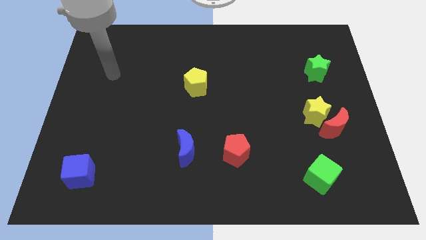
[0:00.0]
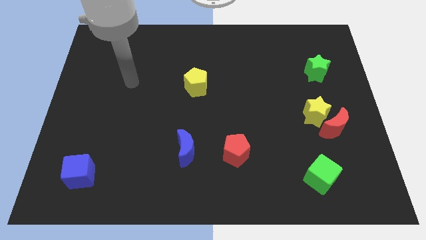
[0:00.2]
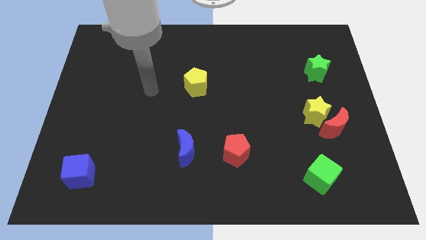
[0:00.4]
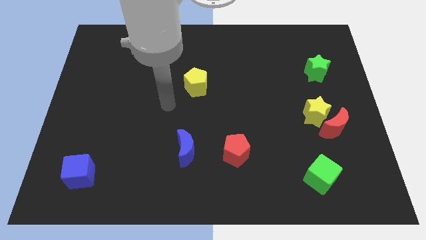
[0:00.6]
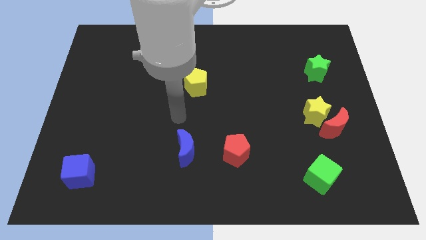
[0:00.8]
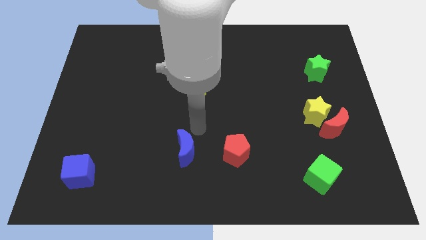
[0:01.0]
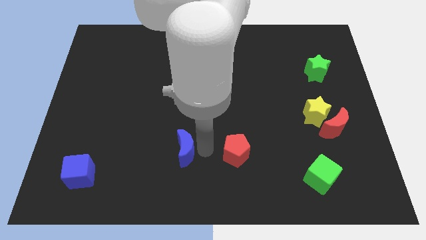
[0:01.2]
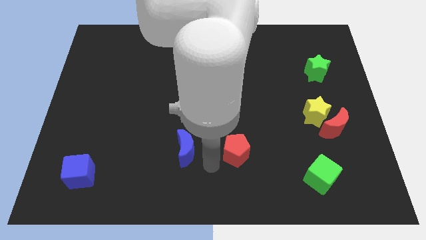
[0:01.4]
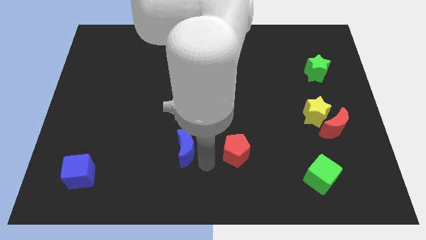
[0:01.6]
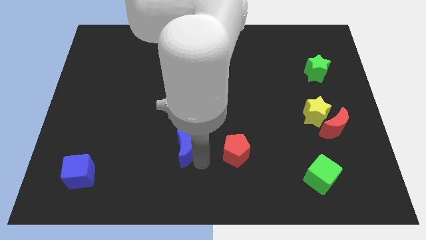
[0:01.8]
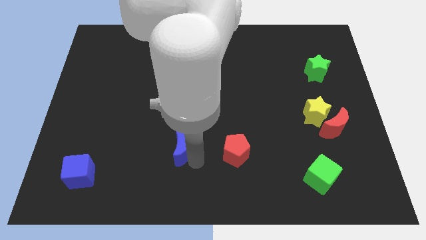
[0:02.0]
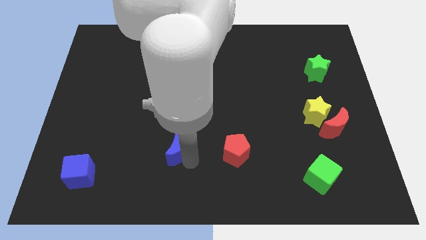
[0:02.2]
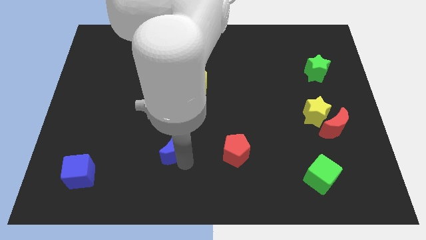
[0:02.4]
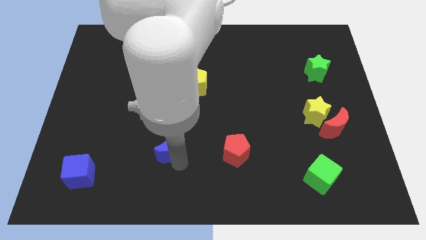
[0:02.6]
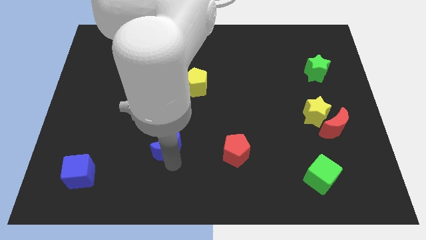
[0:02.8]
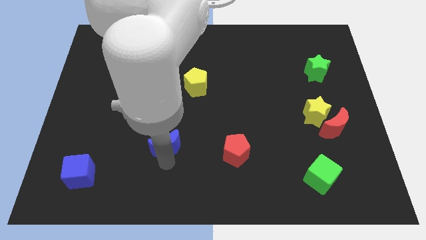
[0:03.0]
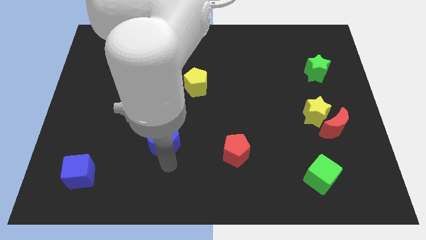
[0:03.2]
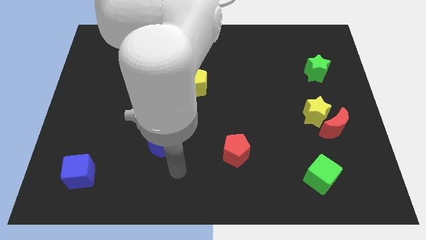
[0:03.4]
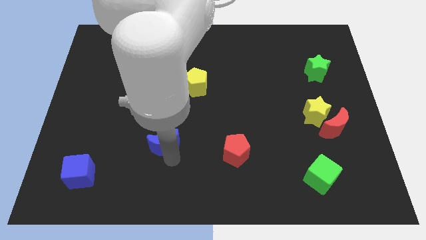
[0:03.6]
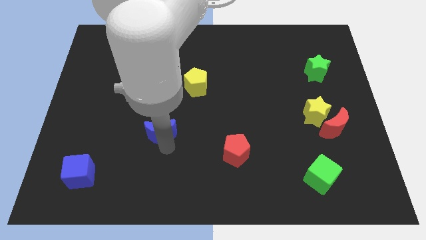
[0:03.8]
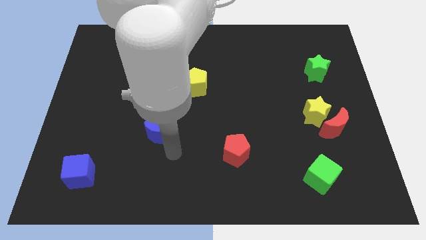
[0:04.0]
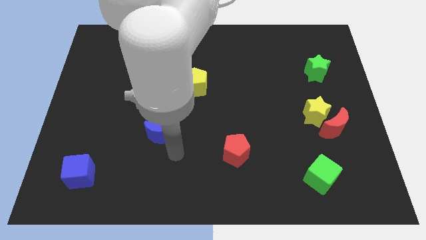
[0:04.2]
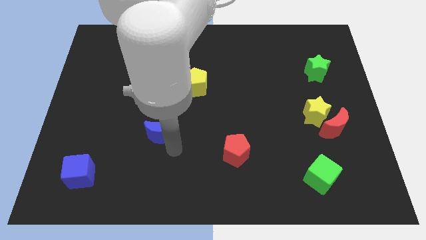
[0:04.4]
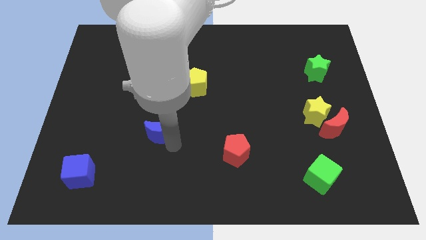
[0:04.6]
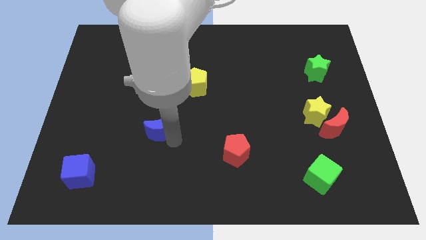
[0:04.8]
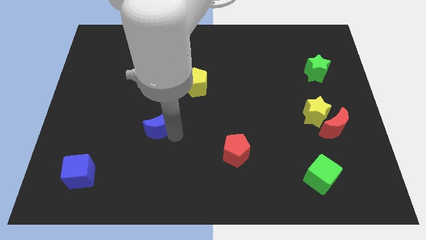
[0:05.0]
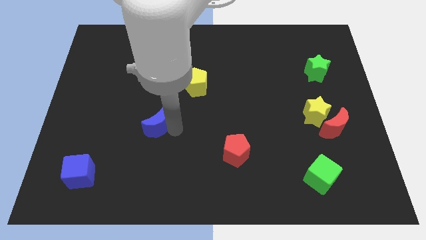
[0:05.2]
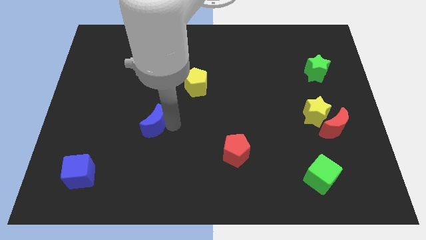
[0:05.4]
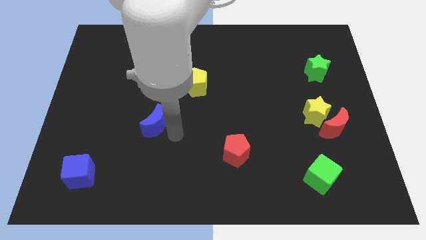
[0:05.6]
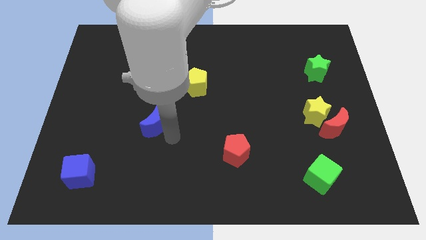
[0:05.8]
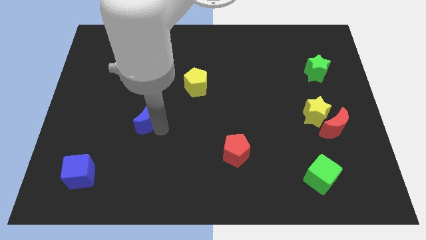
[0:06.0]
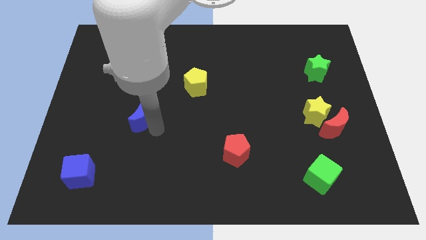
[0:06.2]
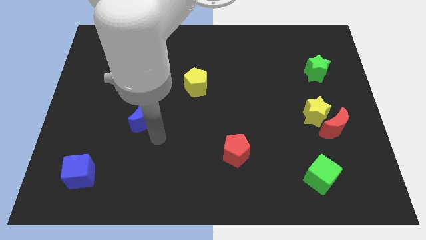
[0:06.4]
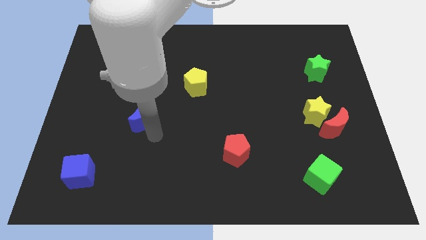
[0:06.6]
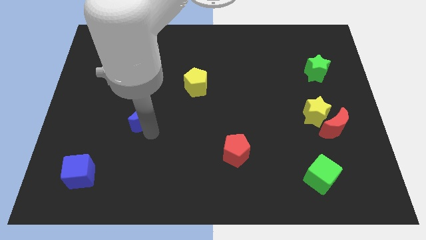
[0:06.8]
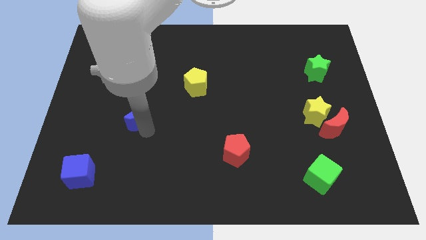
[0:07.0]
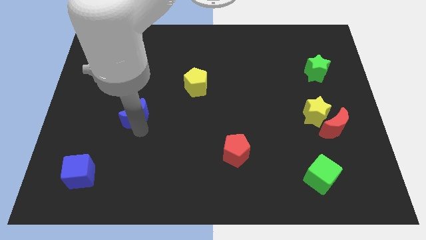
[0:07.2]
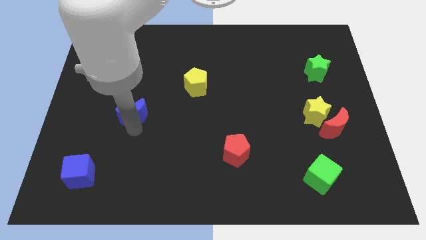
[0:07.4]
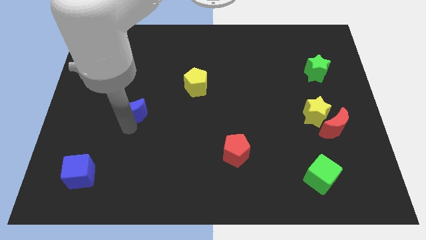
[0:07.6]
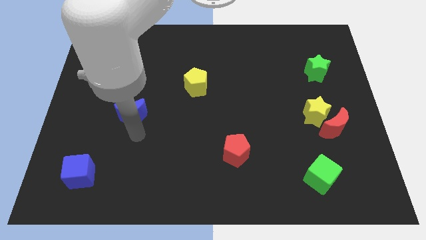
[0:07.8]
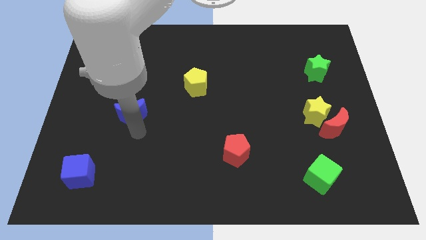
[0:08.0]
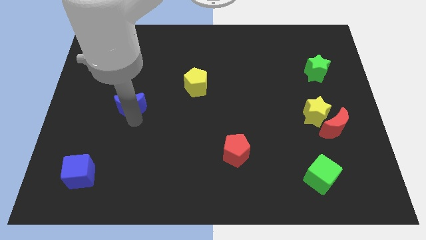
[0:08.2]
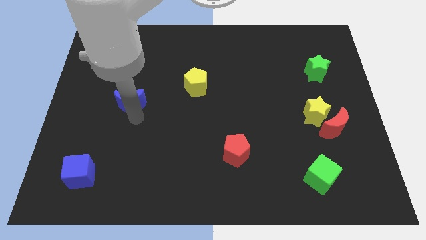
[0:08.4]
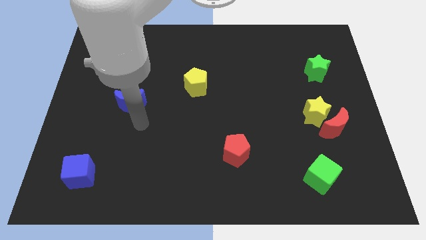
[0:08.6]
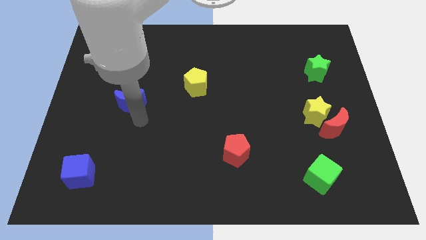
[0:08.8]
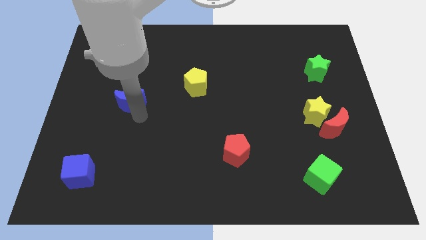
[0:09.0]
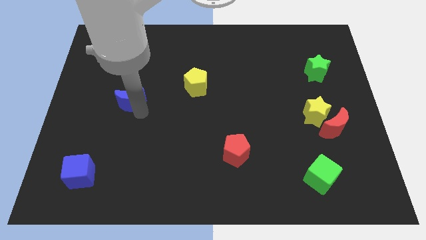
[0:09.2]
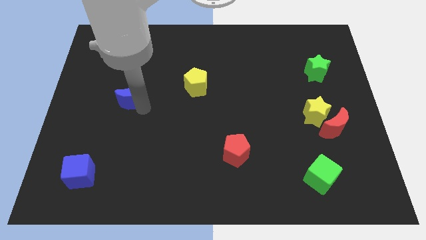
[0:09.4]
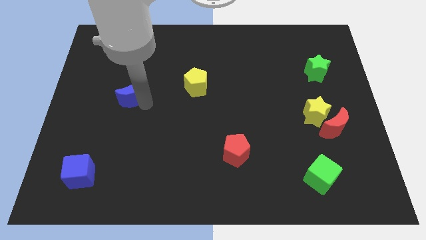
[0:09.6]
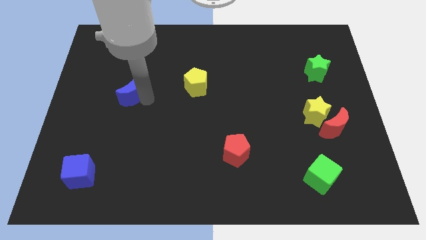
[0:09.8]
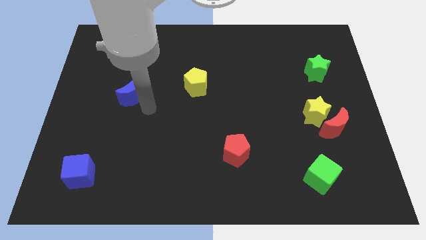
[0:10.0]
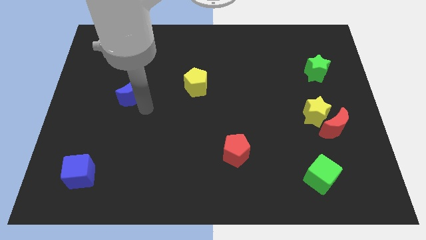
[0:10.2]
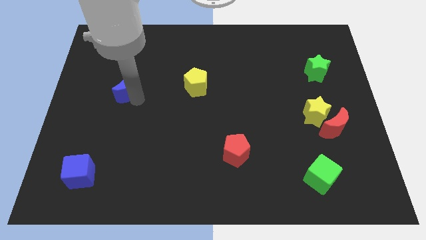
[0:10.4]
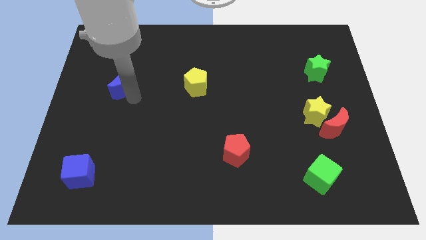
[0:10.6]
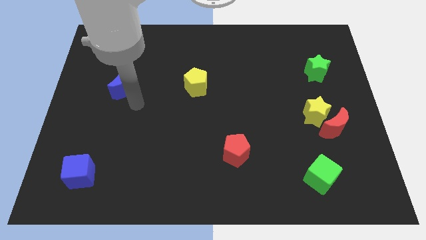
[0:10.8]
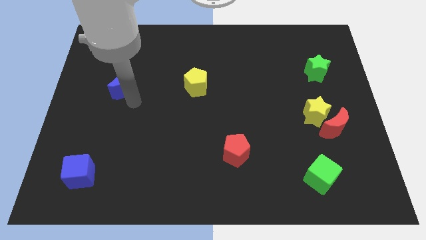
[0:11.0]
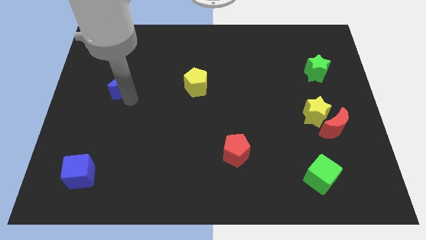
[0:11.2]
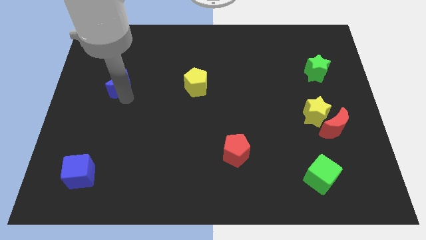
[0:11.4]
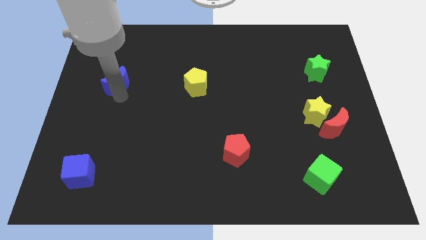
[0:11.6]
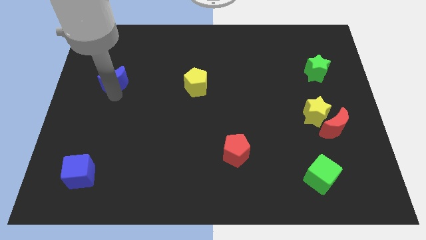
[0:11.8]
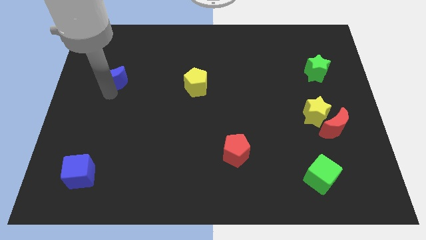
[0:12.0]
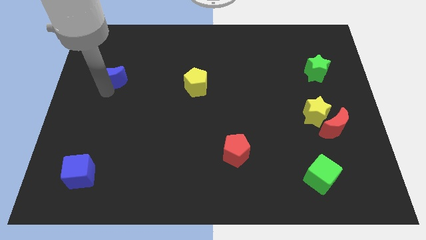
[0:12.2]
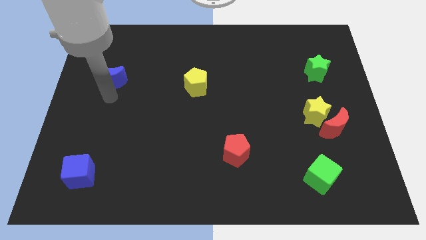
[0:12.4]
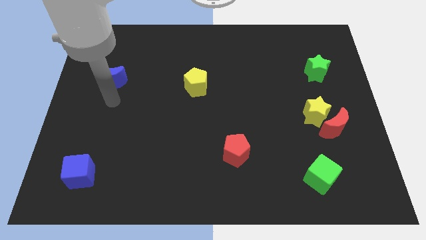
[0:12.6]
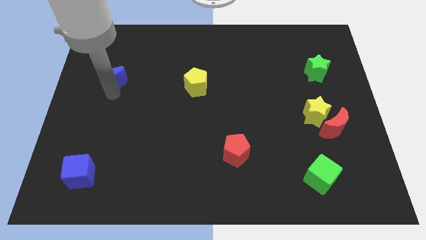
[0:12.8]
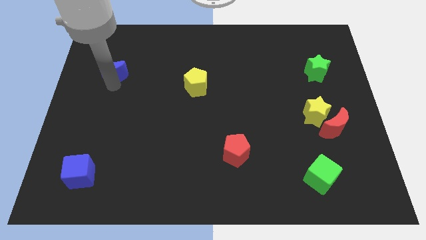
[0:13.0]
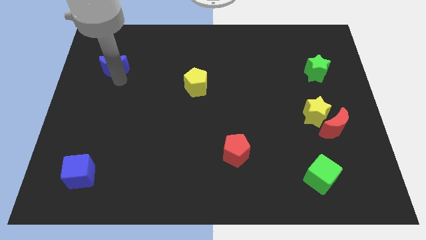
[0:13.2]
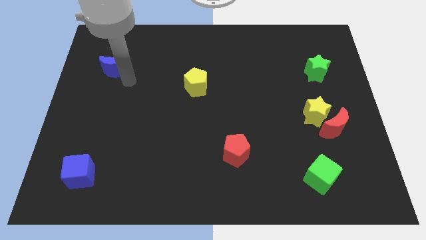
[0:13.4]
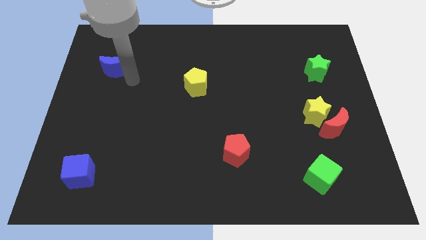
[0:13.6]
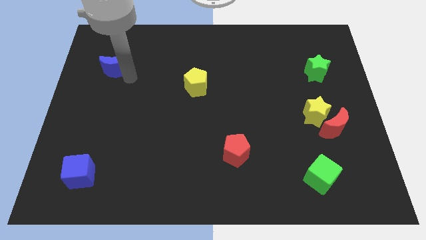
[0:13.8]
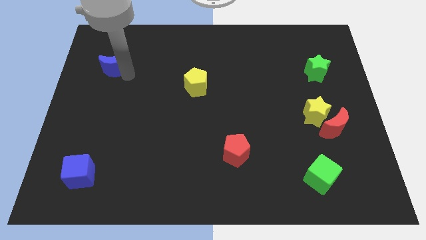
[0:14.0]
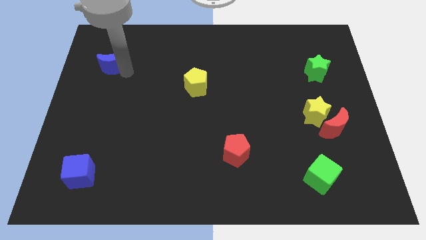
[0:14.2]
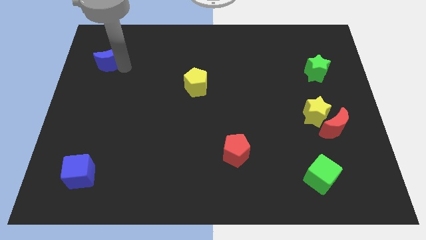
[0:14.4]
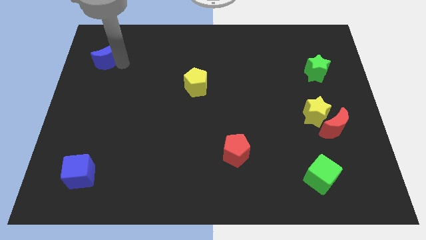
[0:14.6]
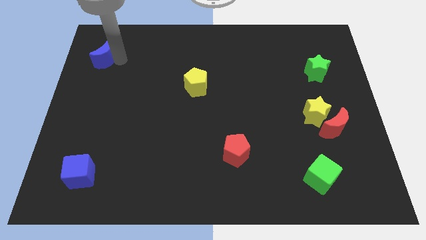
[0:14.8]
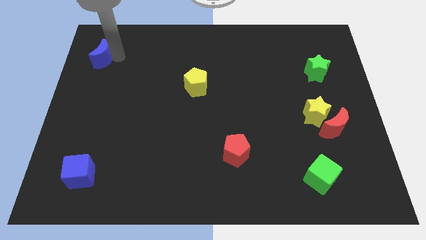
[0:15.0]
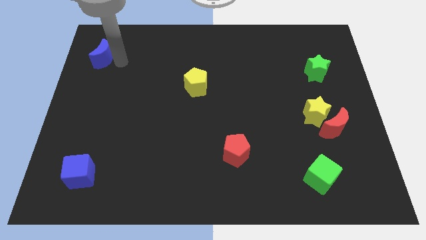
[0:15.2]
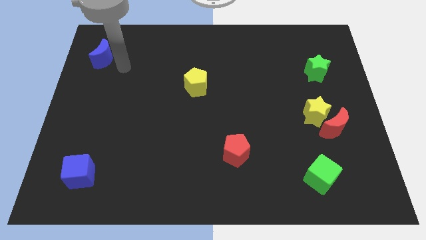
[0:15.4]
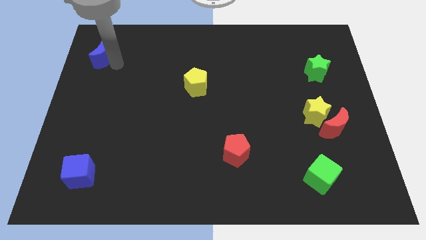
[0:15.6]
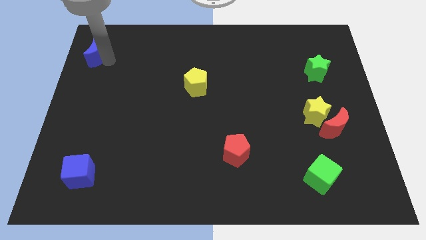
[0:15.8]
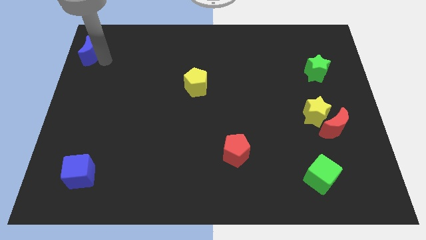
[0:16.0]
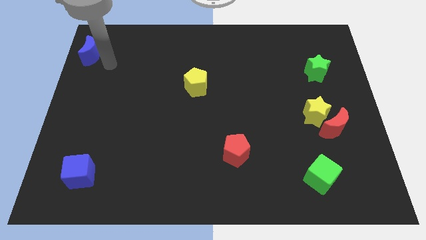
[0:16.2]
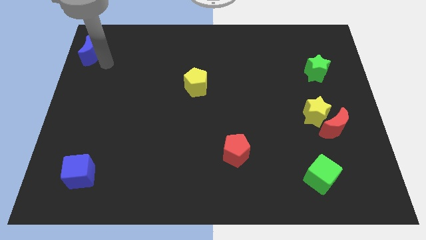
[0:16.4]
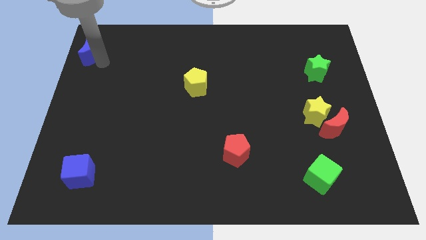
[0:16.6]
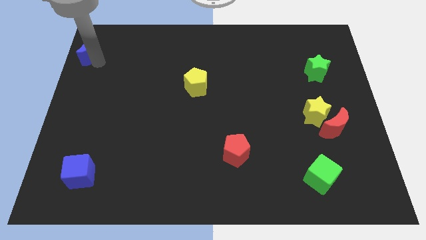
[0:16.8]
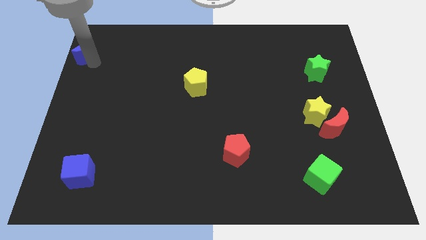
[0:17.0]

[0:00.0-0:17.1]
slide the blue moon to the top left of the board
